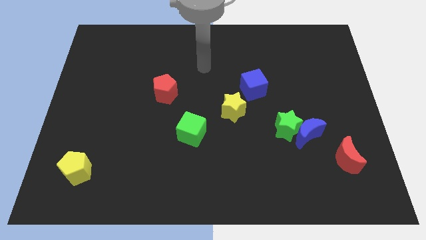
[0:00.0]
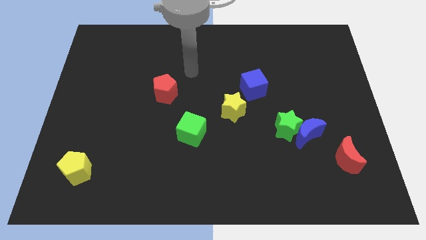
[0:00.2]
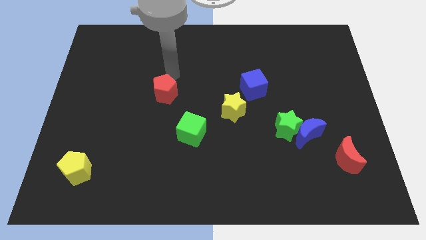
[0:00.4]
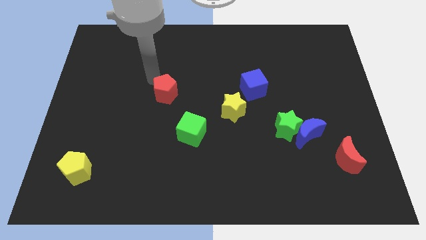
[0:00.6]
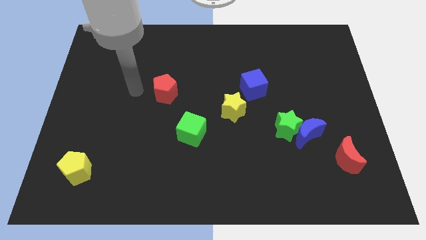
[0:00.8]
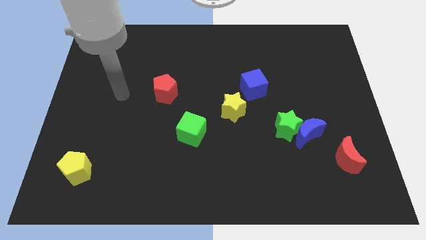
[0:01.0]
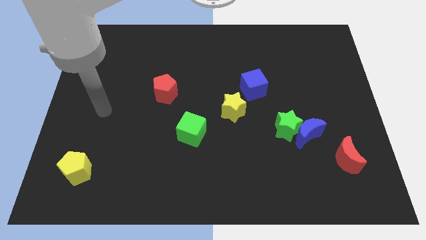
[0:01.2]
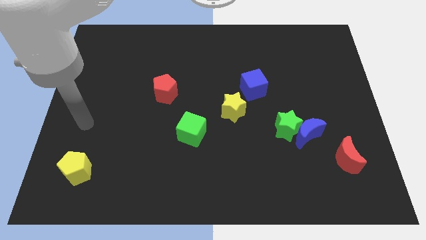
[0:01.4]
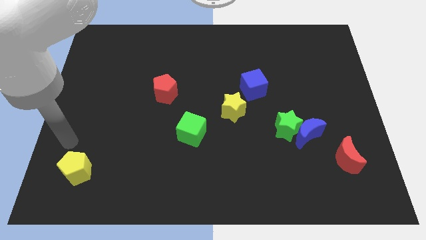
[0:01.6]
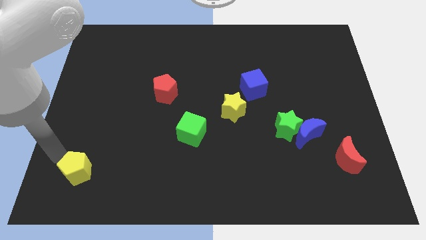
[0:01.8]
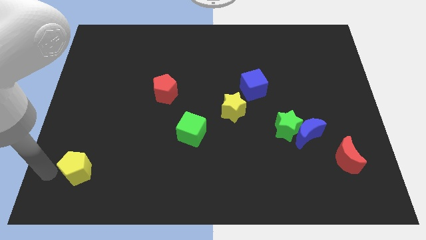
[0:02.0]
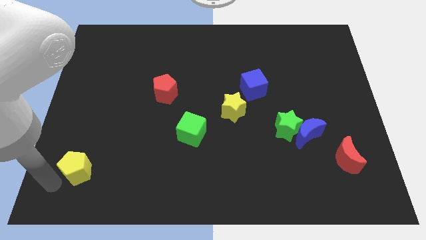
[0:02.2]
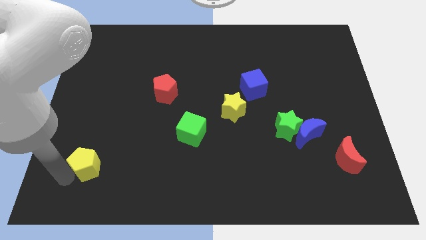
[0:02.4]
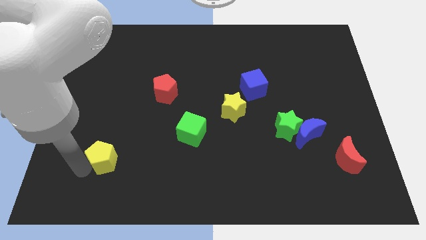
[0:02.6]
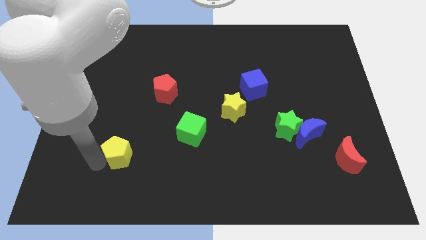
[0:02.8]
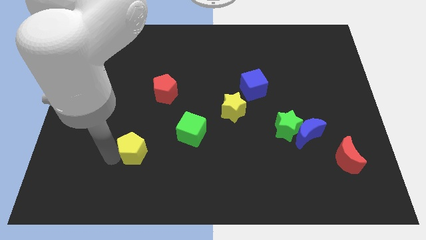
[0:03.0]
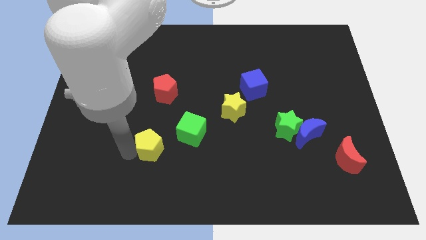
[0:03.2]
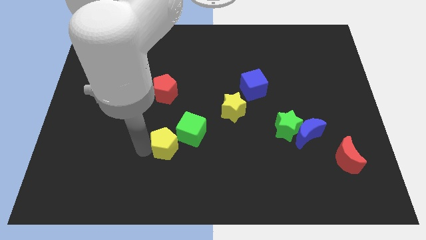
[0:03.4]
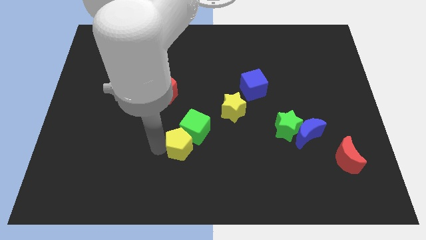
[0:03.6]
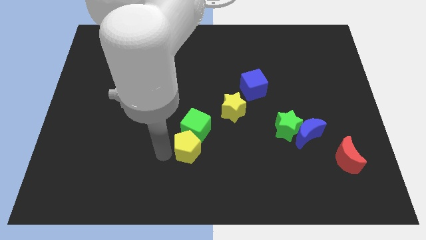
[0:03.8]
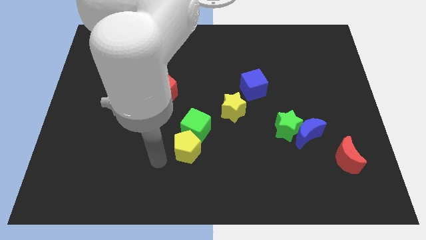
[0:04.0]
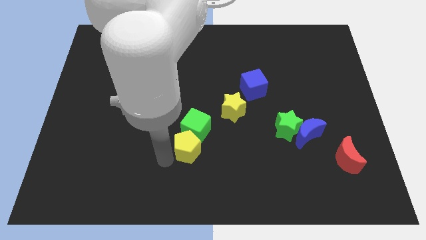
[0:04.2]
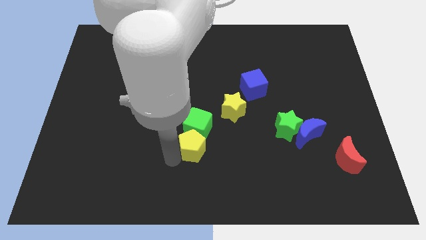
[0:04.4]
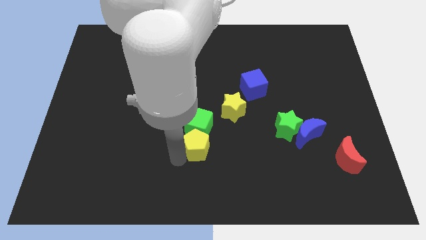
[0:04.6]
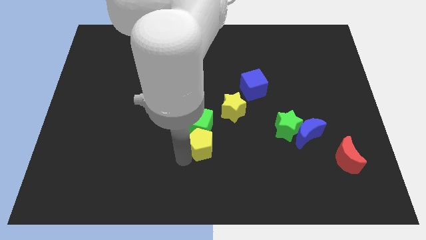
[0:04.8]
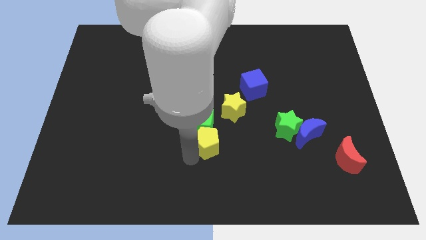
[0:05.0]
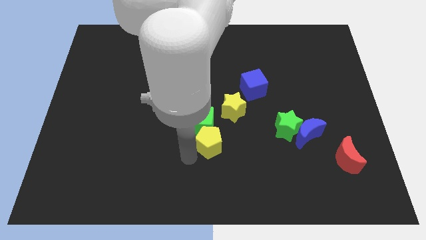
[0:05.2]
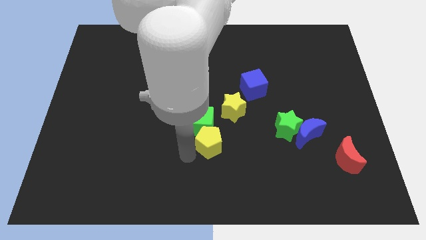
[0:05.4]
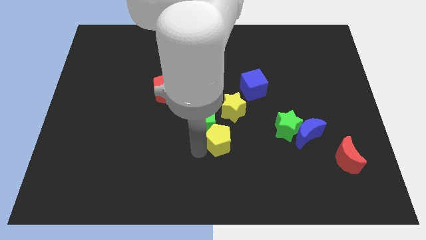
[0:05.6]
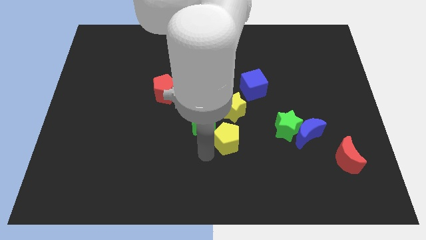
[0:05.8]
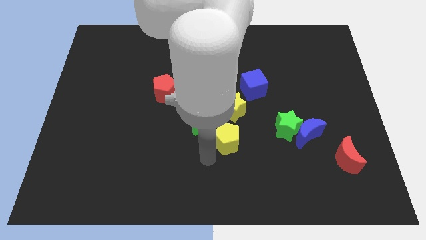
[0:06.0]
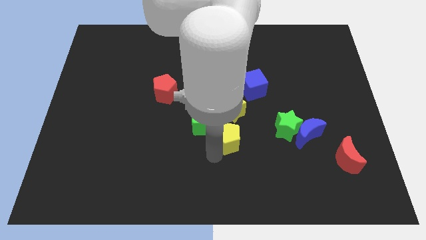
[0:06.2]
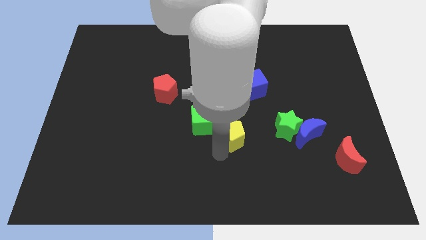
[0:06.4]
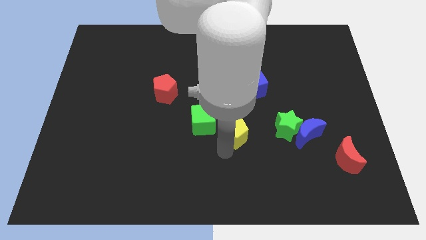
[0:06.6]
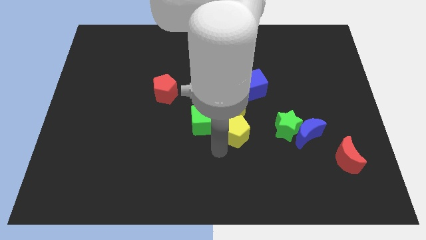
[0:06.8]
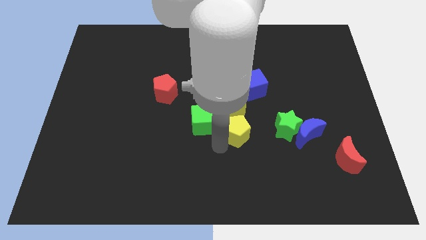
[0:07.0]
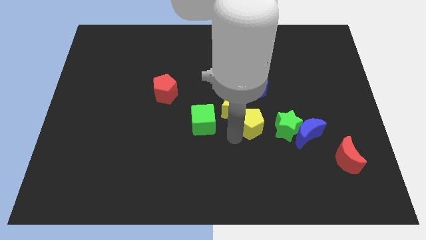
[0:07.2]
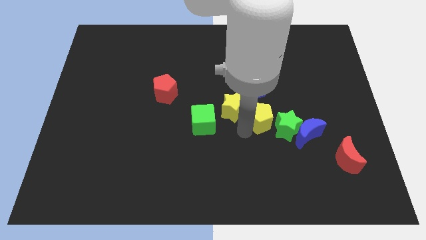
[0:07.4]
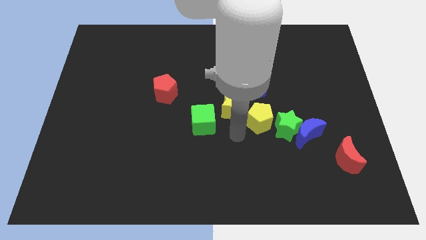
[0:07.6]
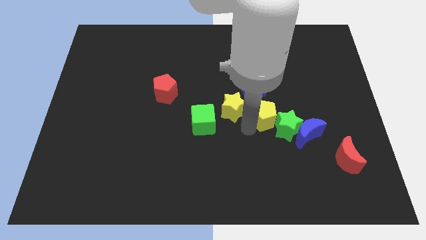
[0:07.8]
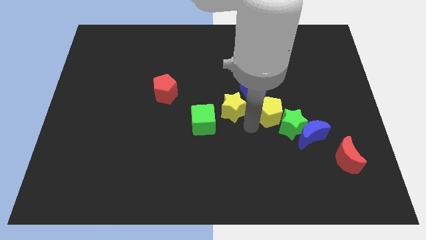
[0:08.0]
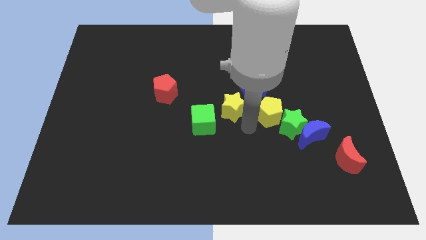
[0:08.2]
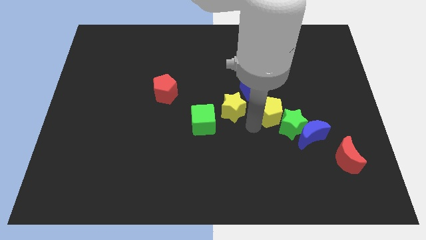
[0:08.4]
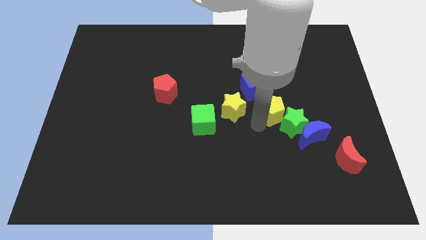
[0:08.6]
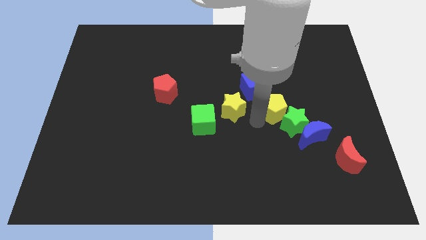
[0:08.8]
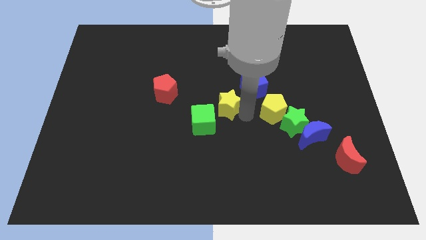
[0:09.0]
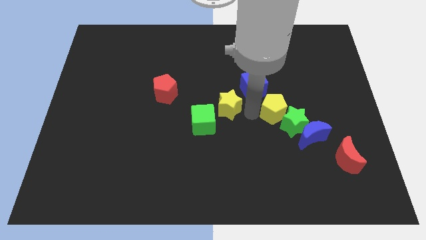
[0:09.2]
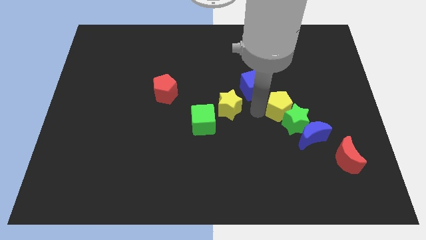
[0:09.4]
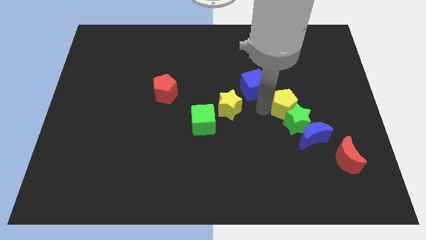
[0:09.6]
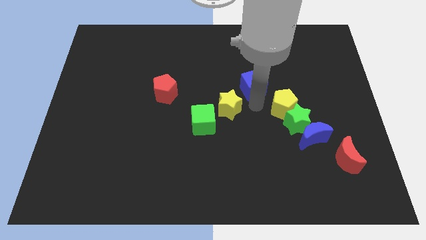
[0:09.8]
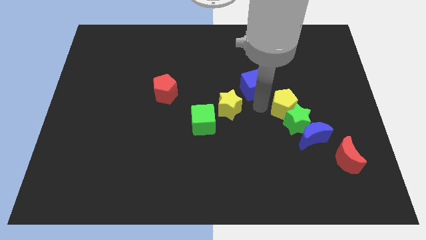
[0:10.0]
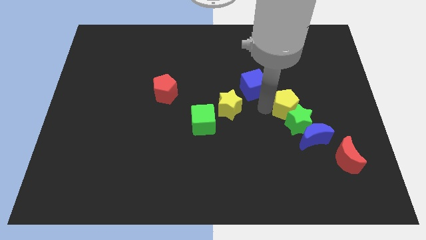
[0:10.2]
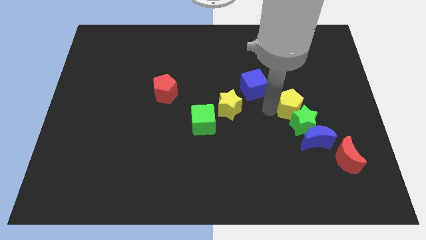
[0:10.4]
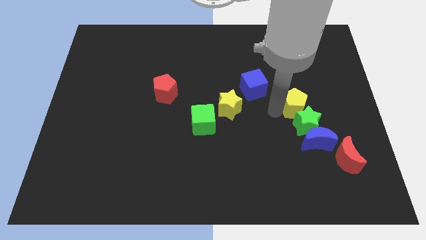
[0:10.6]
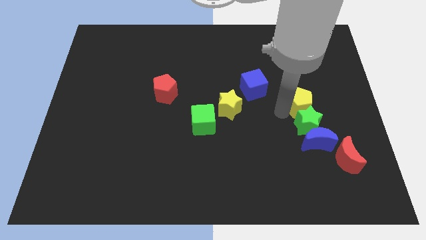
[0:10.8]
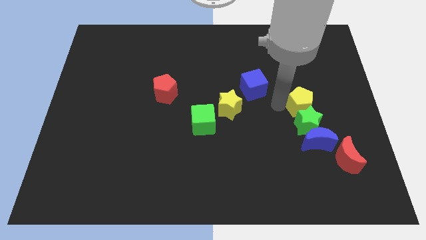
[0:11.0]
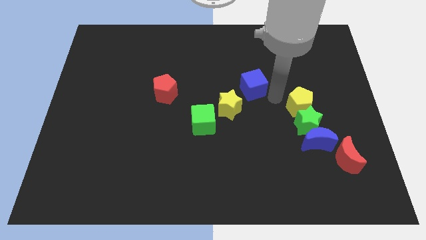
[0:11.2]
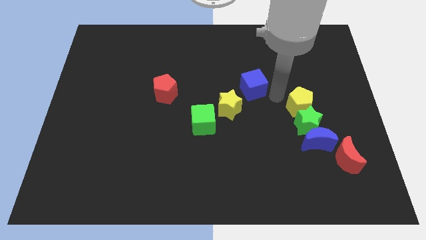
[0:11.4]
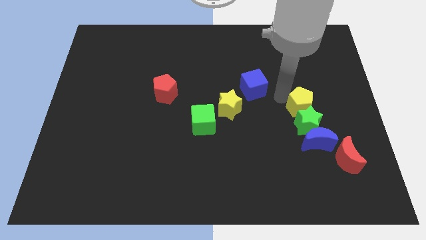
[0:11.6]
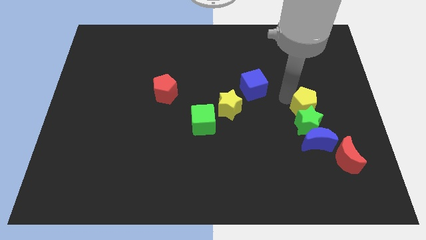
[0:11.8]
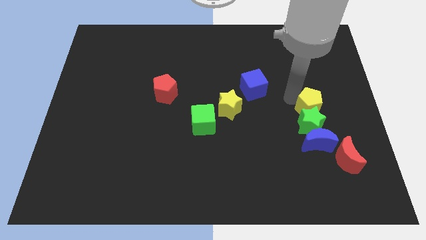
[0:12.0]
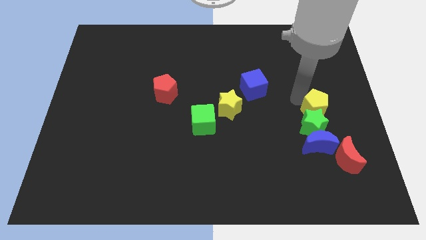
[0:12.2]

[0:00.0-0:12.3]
push the yellow pentagon to the top side of the red moon

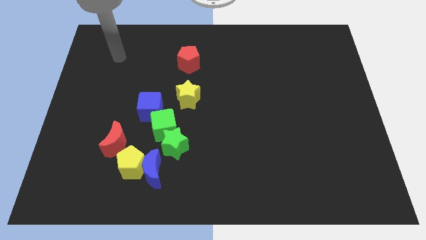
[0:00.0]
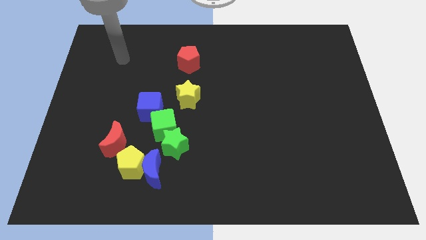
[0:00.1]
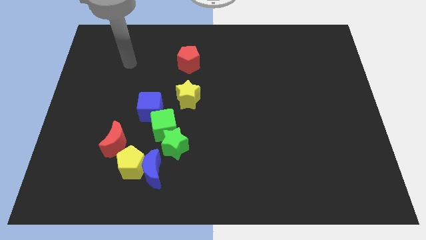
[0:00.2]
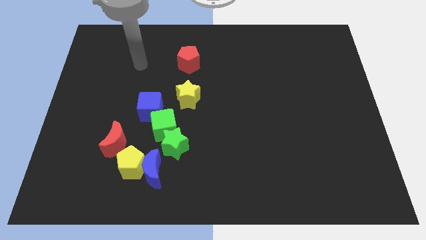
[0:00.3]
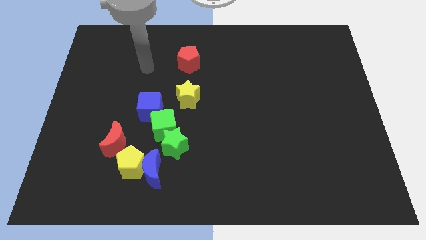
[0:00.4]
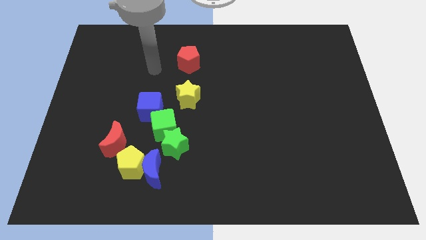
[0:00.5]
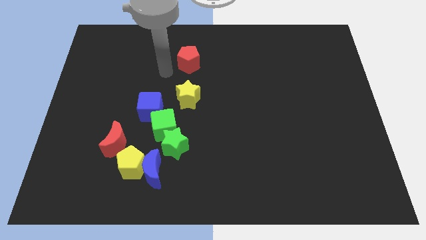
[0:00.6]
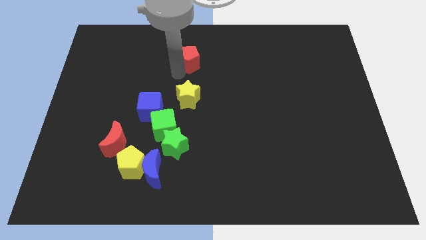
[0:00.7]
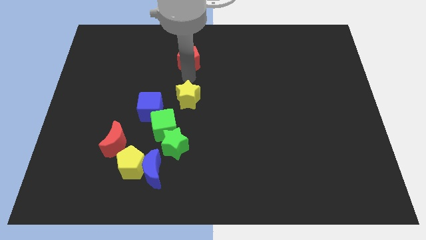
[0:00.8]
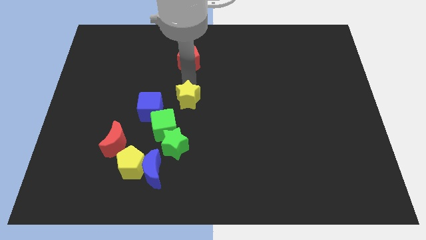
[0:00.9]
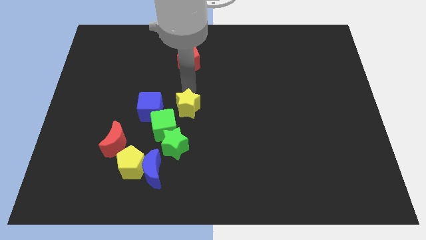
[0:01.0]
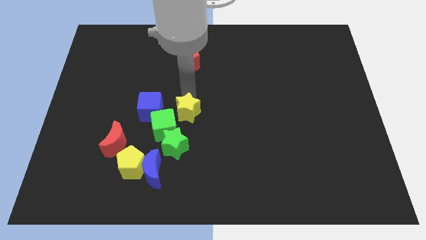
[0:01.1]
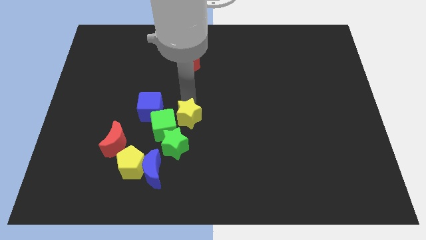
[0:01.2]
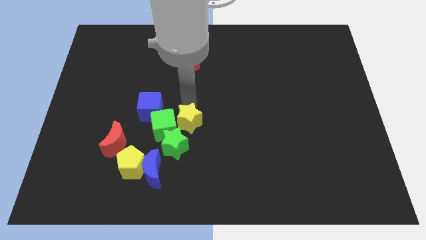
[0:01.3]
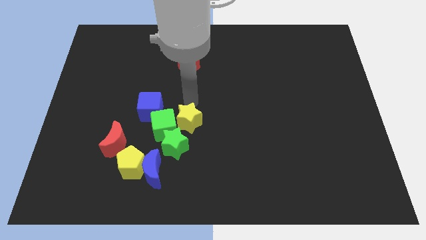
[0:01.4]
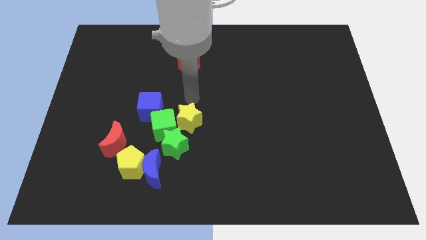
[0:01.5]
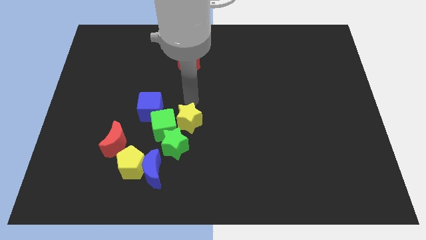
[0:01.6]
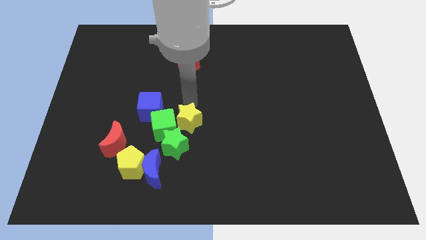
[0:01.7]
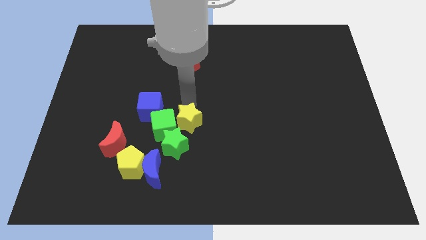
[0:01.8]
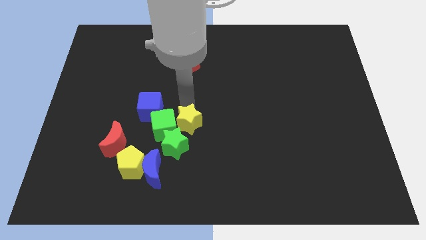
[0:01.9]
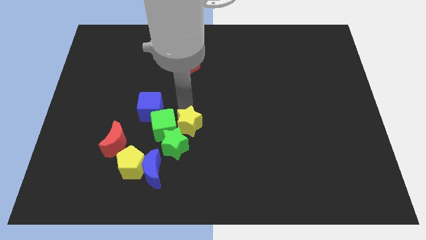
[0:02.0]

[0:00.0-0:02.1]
push the yellow star to the bottom right of the green cube
